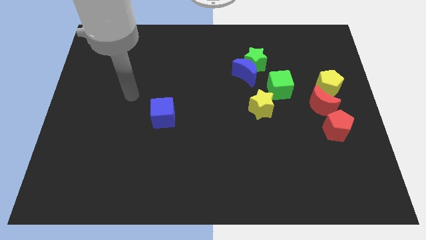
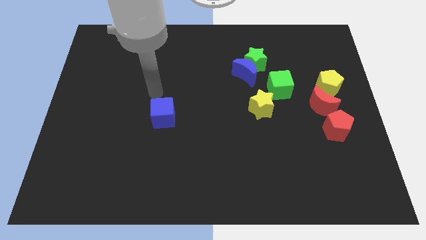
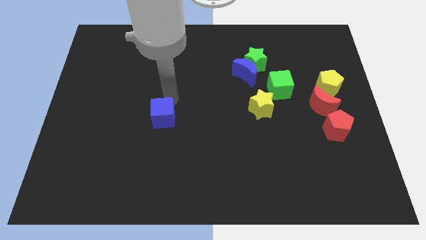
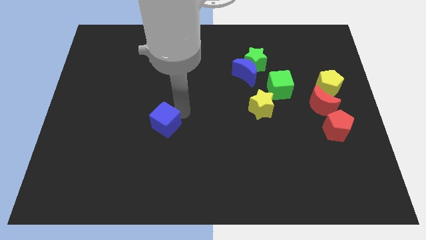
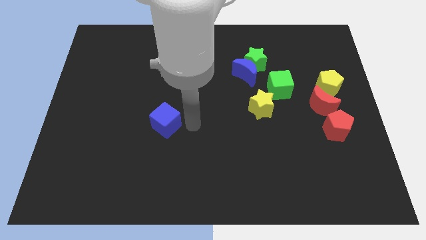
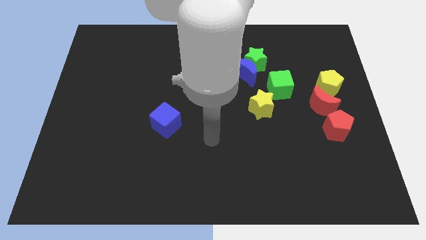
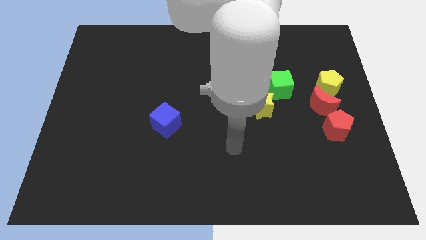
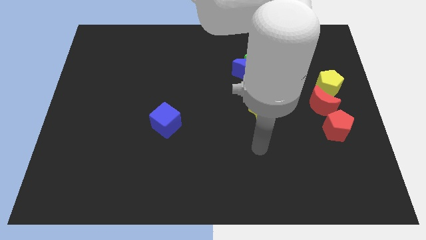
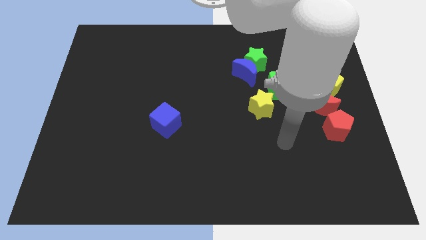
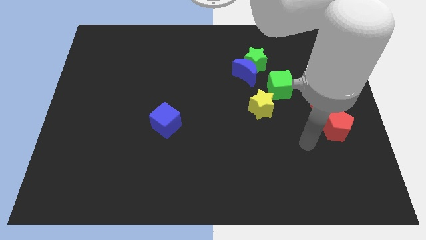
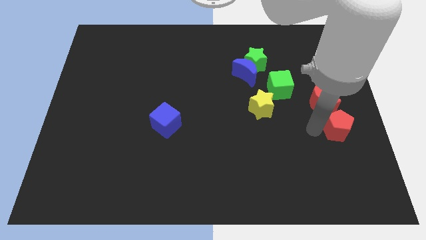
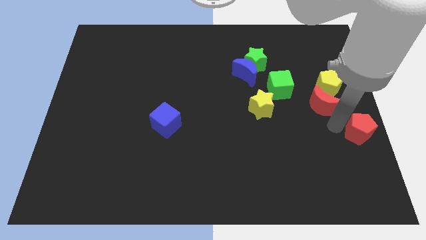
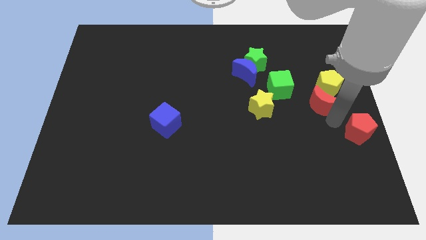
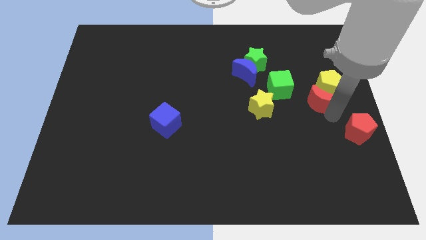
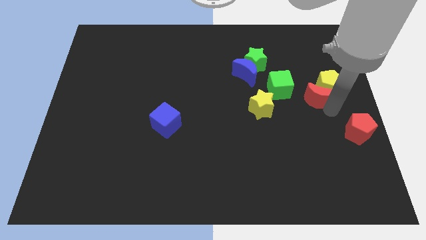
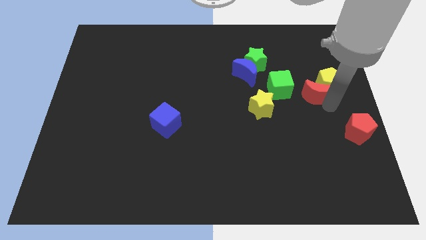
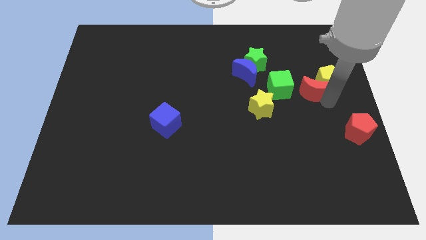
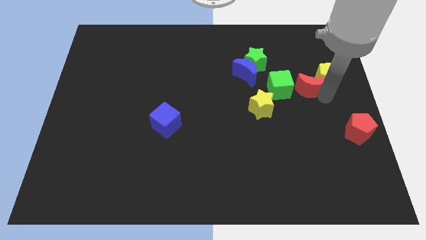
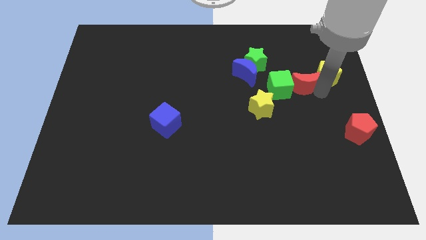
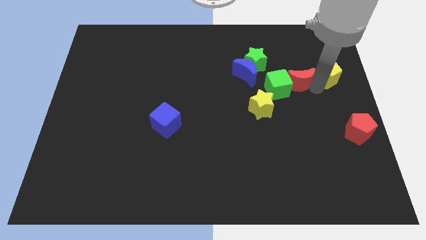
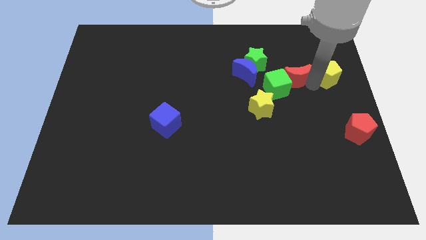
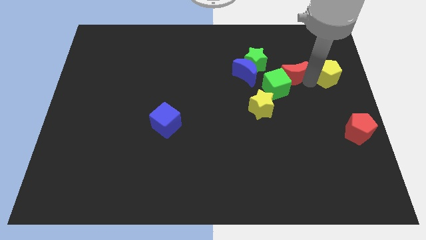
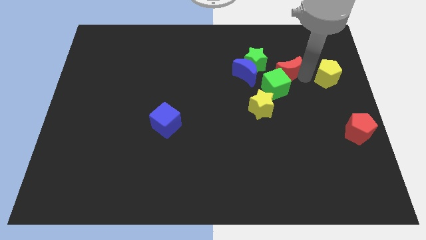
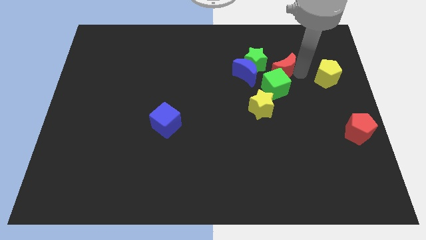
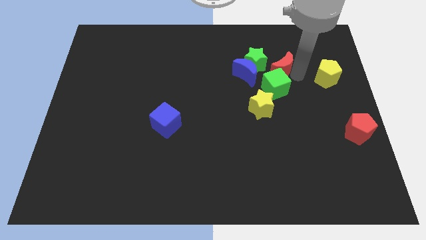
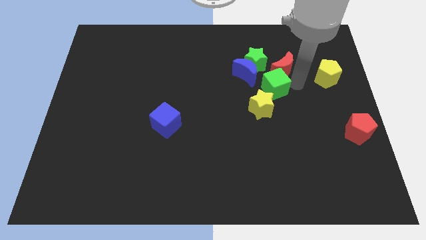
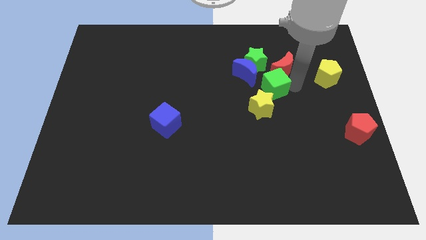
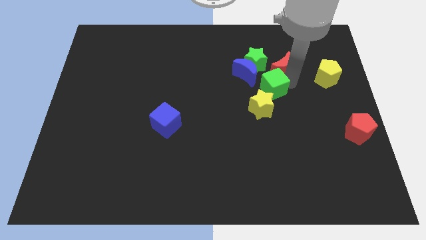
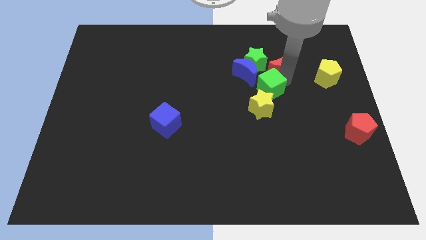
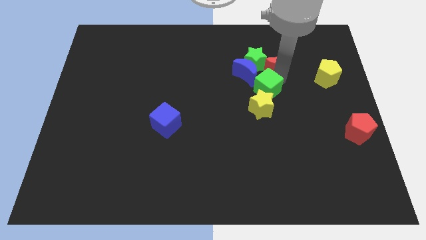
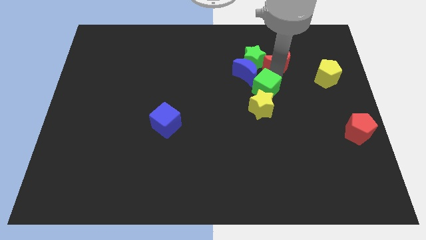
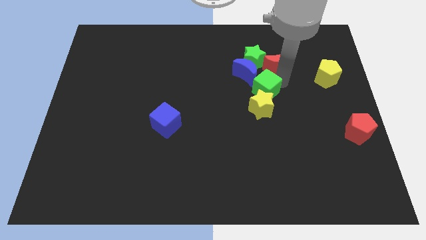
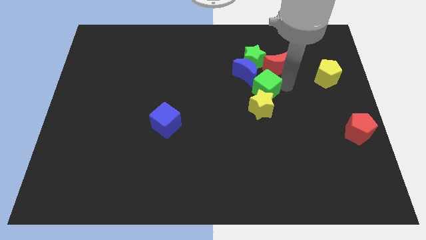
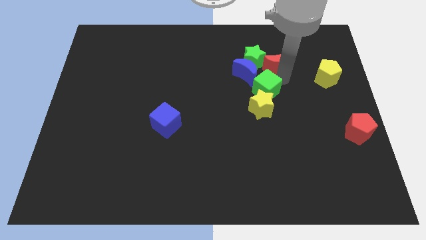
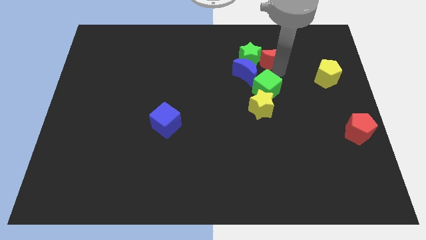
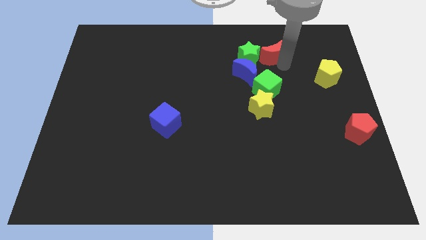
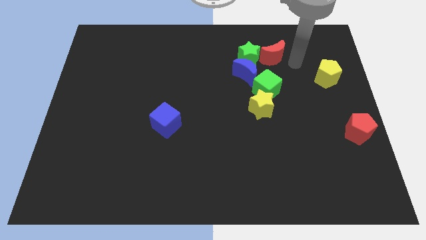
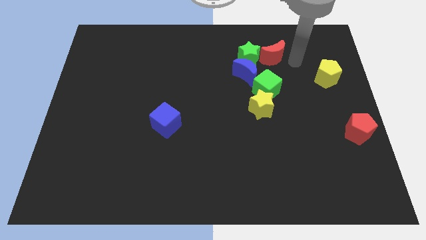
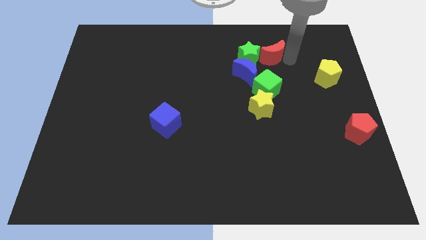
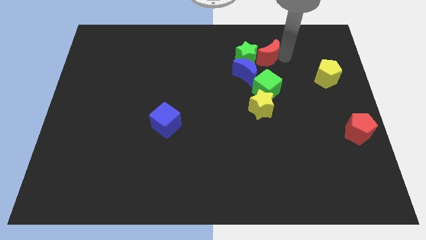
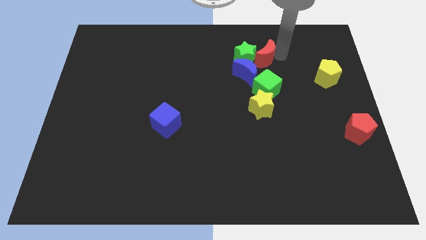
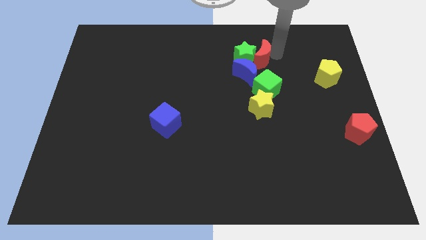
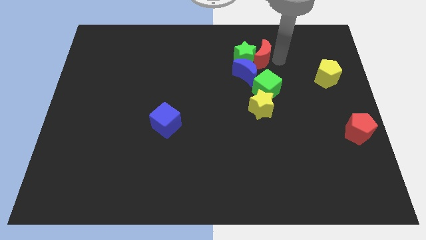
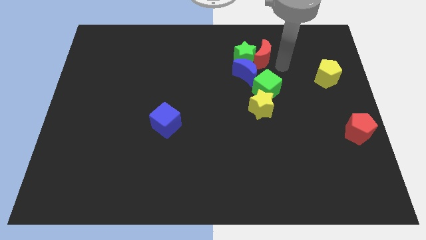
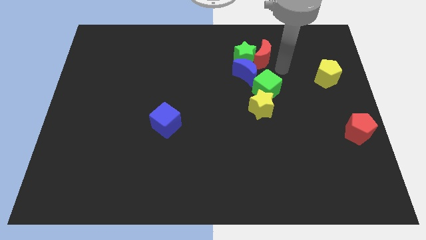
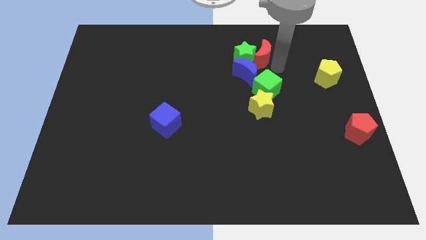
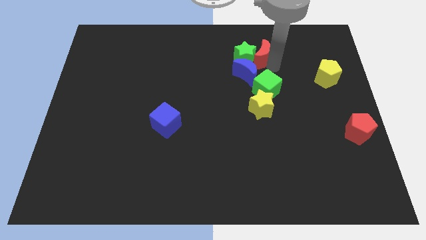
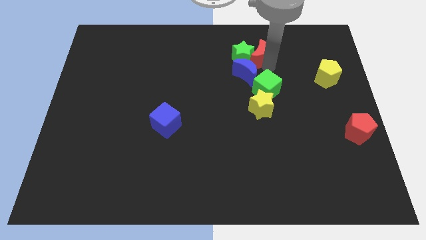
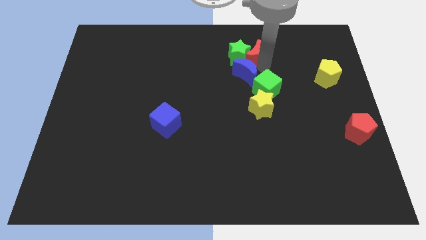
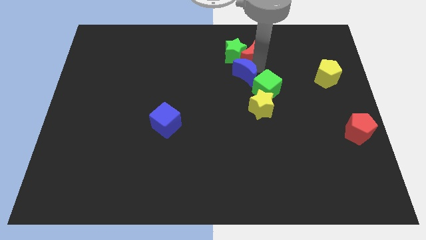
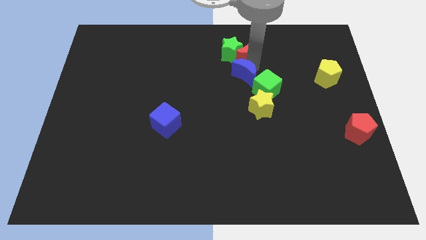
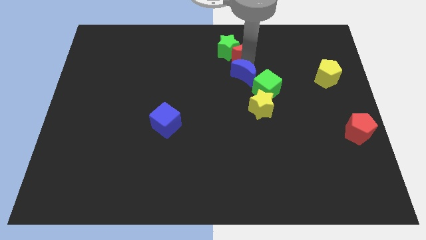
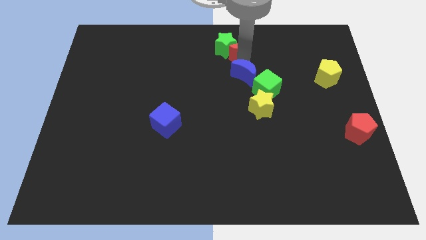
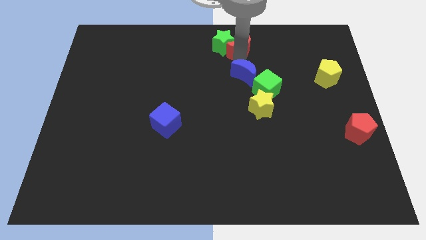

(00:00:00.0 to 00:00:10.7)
put the red moon to the towards your base

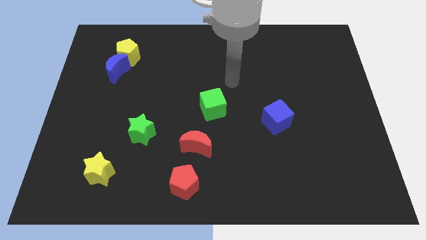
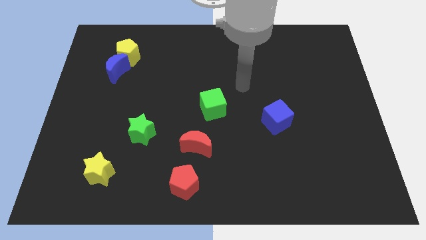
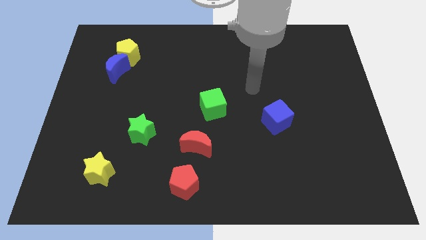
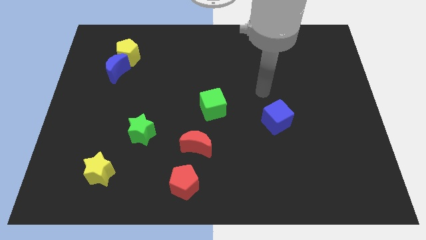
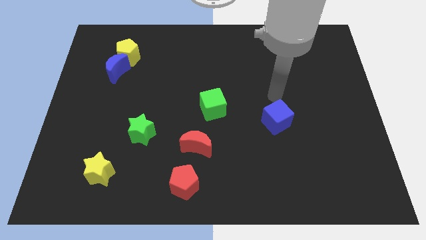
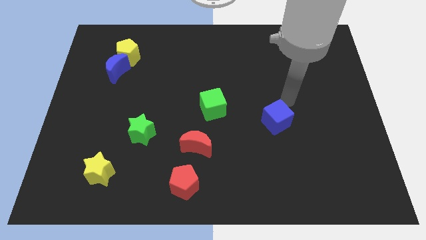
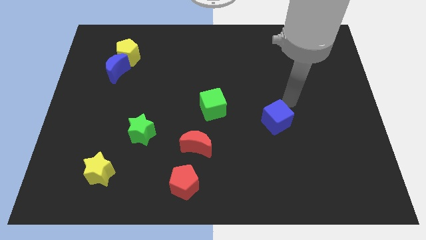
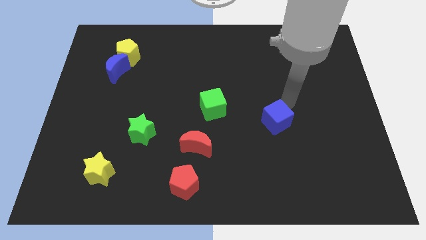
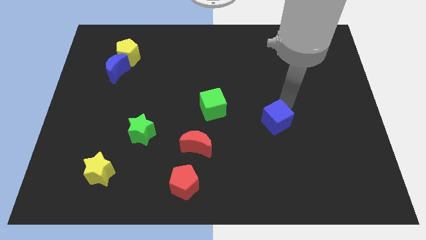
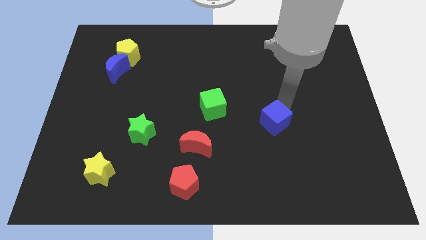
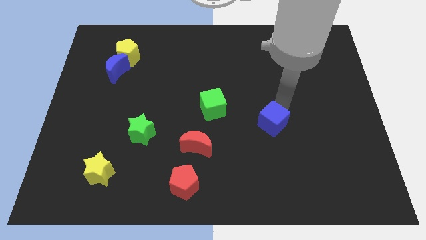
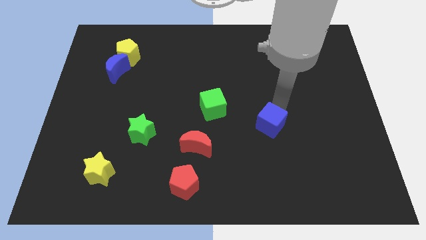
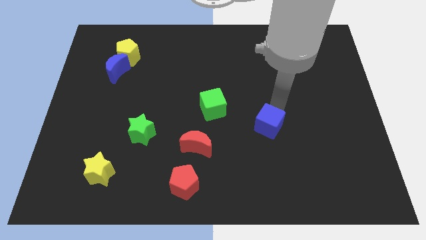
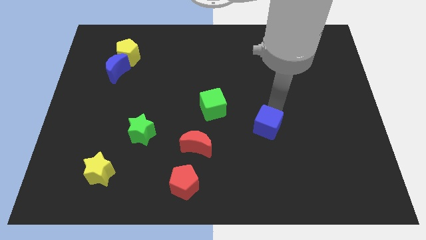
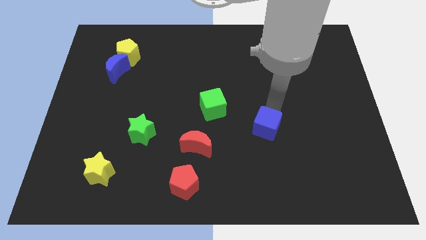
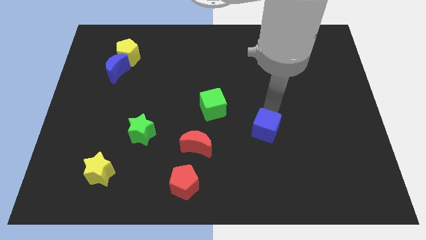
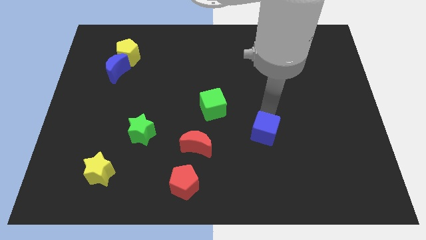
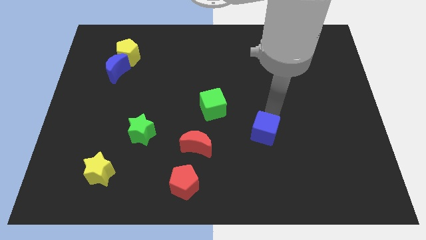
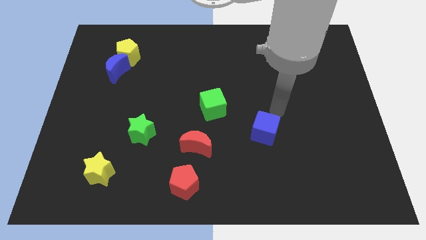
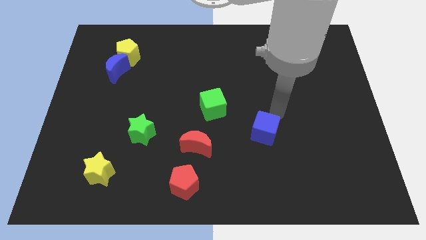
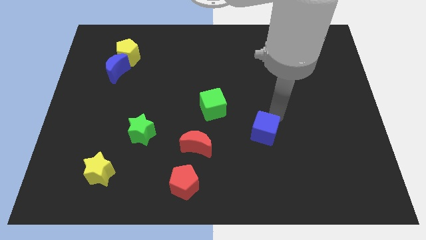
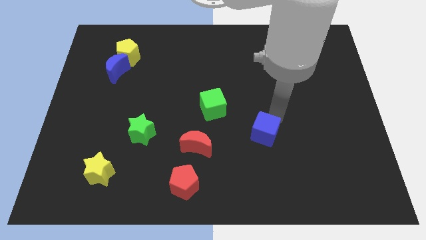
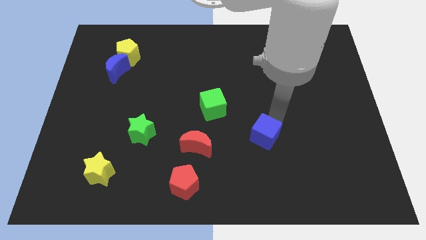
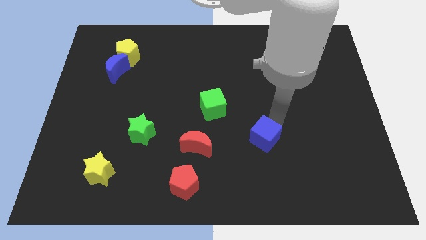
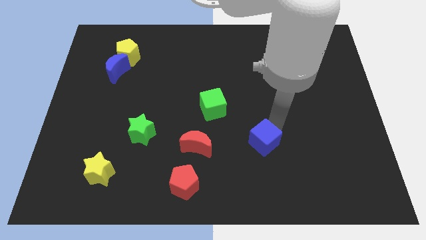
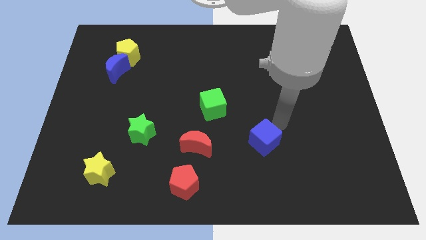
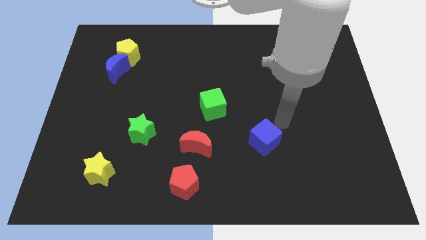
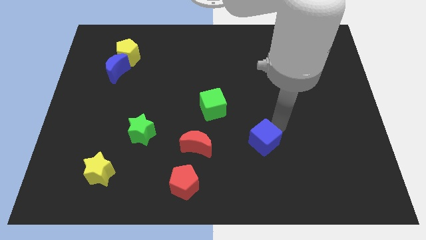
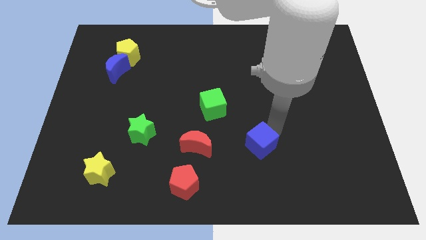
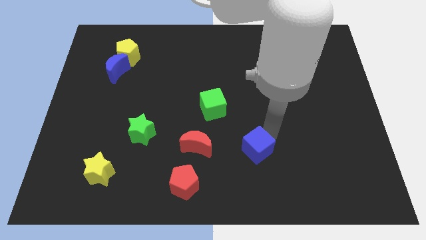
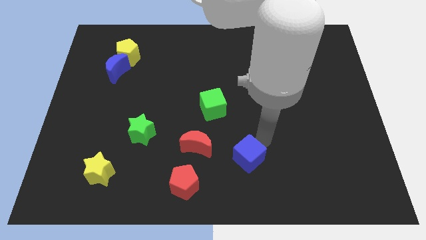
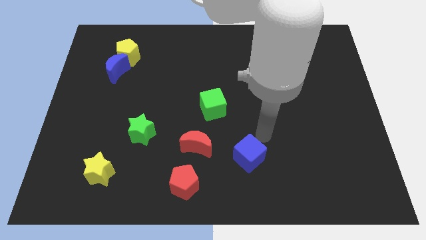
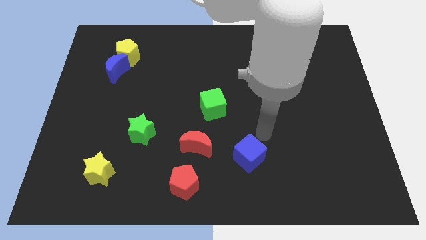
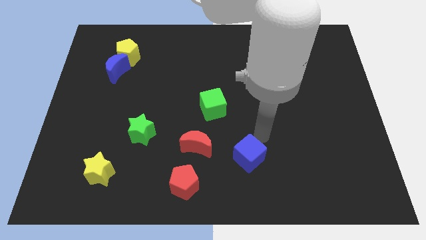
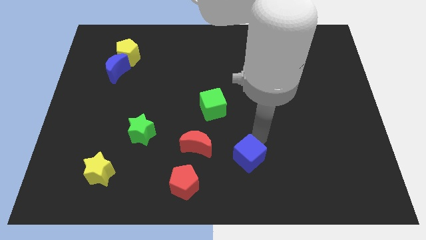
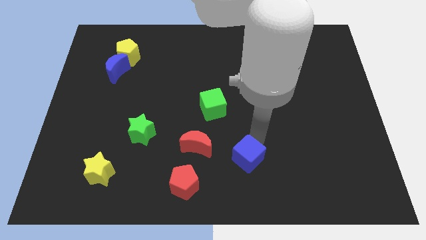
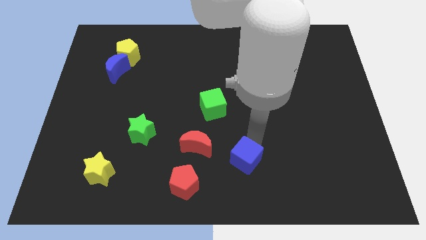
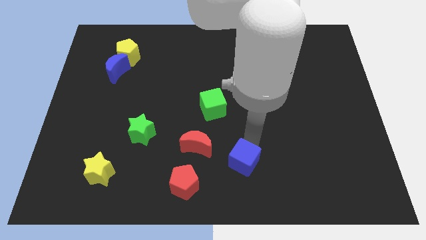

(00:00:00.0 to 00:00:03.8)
put the blue cube to the bottom
